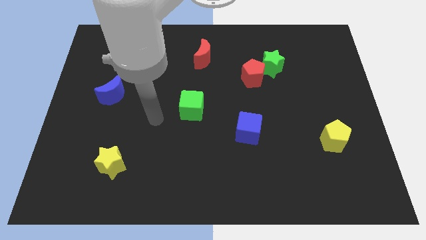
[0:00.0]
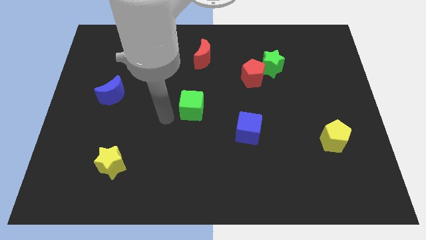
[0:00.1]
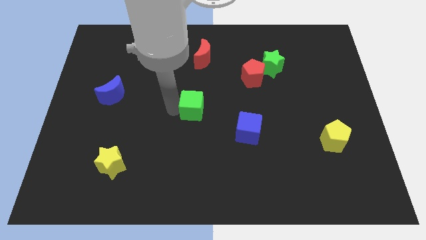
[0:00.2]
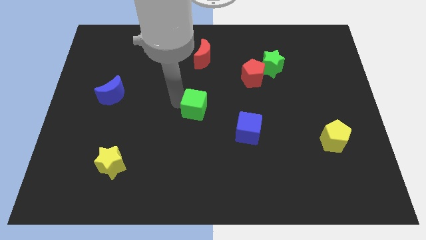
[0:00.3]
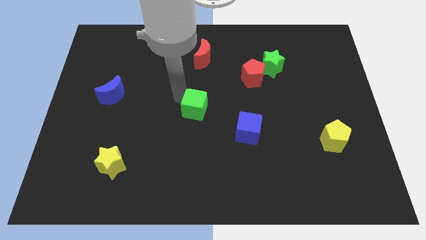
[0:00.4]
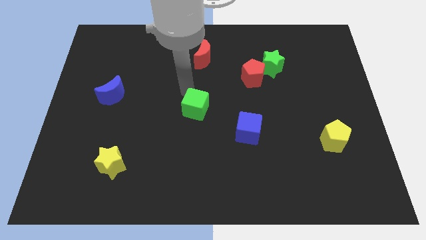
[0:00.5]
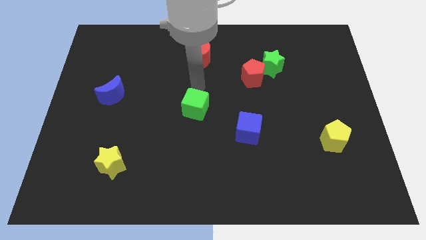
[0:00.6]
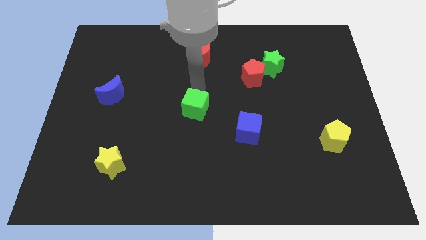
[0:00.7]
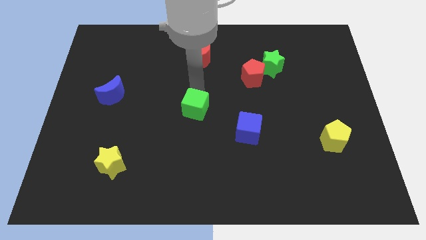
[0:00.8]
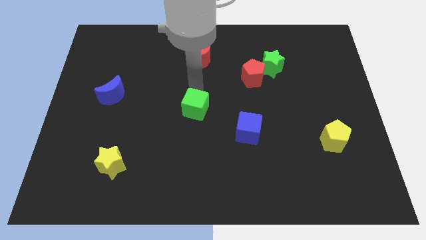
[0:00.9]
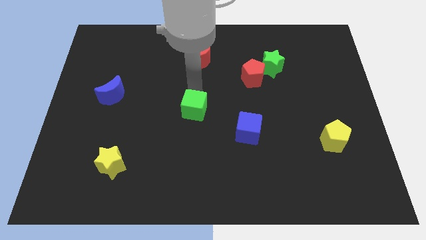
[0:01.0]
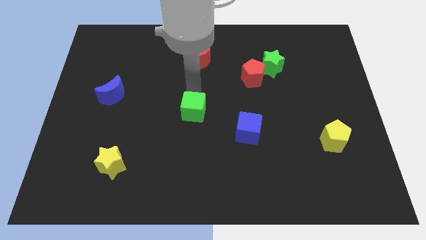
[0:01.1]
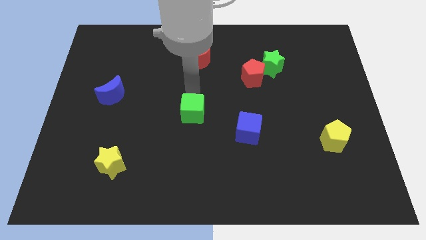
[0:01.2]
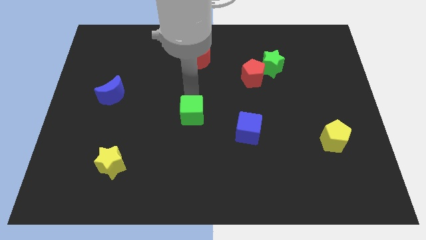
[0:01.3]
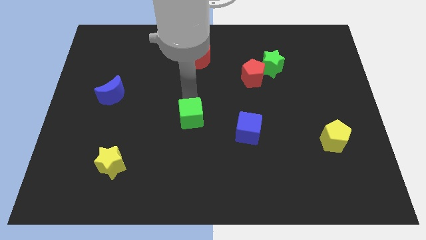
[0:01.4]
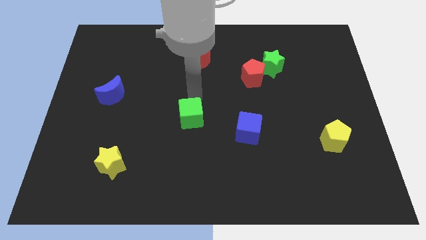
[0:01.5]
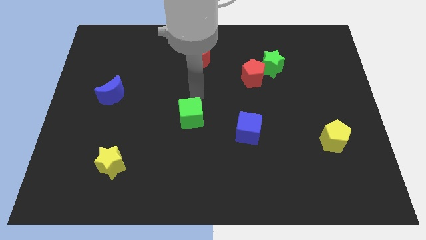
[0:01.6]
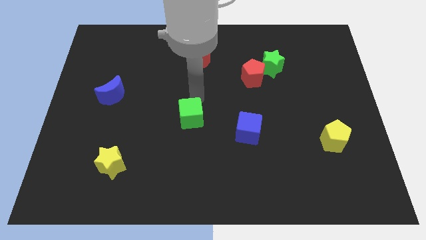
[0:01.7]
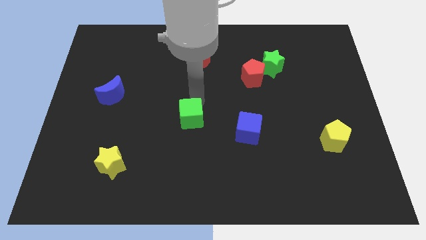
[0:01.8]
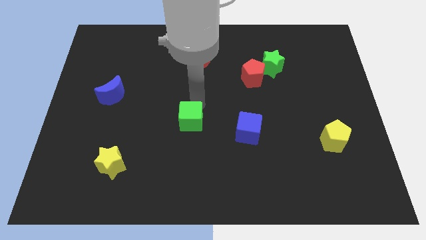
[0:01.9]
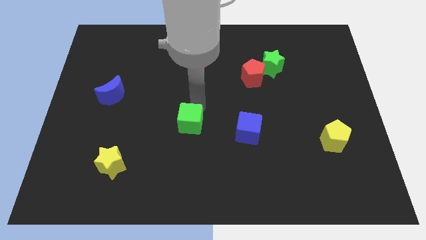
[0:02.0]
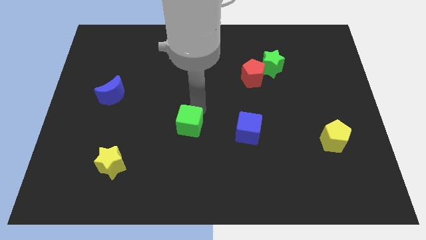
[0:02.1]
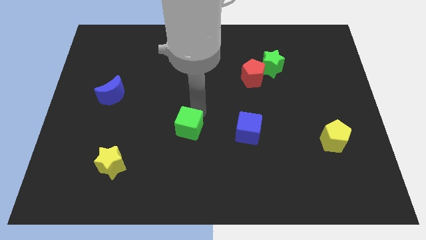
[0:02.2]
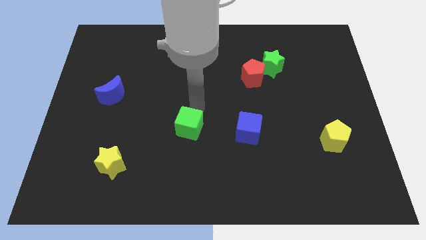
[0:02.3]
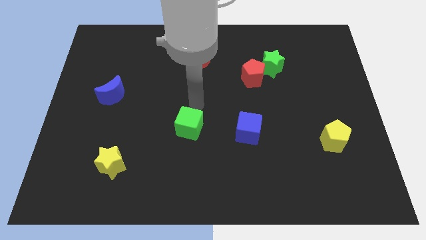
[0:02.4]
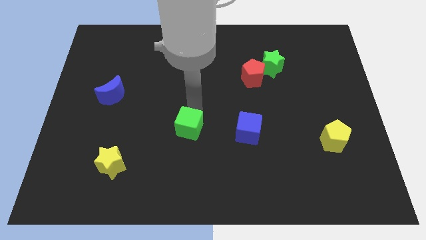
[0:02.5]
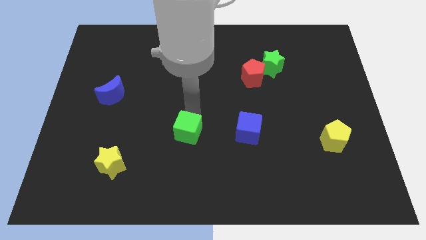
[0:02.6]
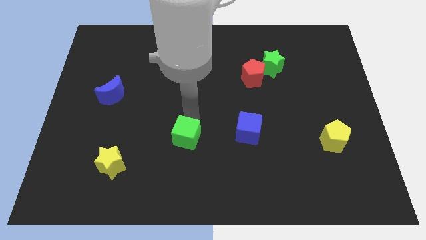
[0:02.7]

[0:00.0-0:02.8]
move the green cube down slightly

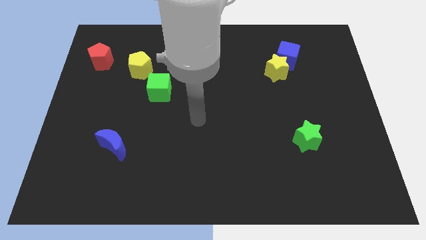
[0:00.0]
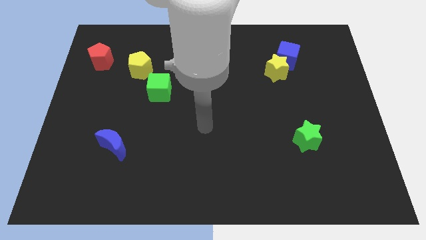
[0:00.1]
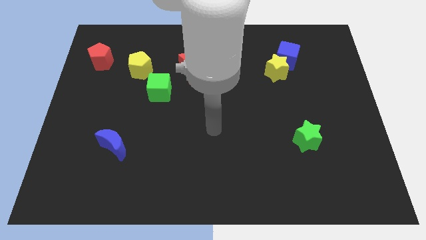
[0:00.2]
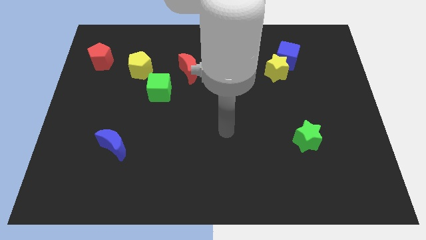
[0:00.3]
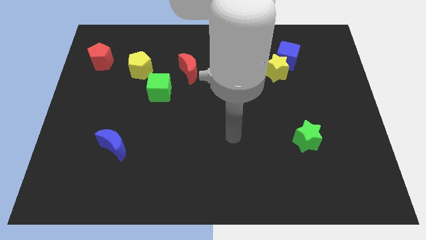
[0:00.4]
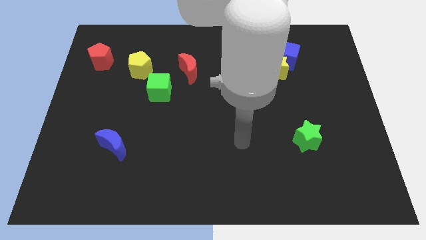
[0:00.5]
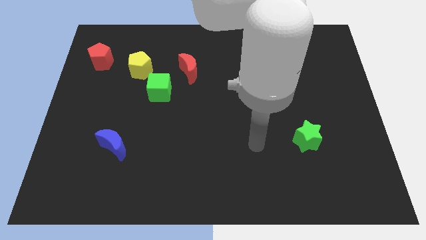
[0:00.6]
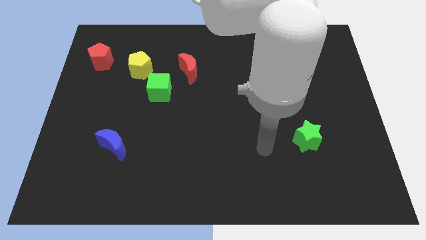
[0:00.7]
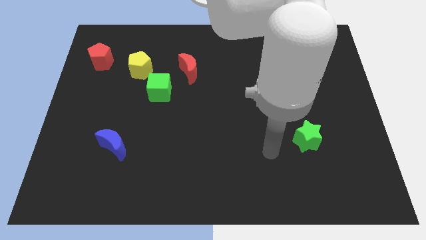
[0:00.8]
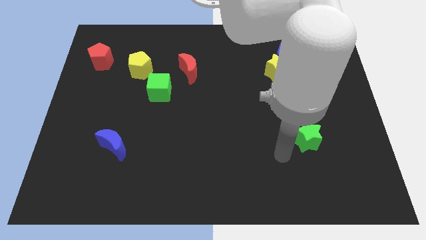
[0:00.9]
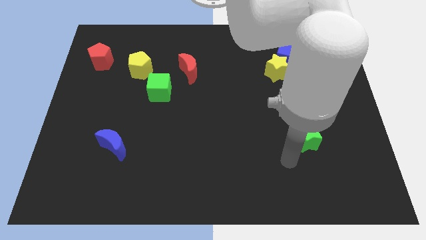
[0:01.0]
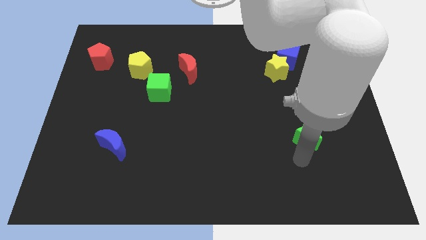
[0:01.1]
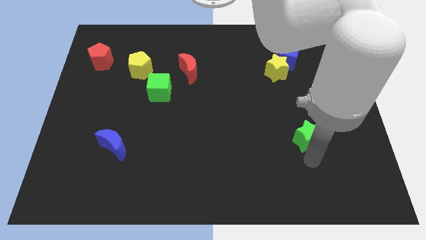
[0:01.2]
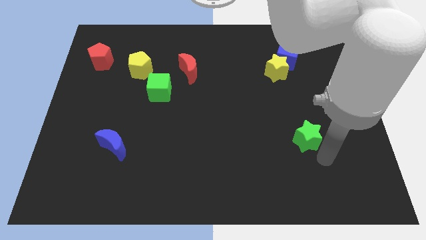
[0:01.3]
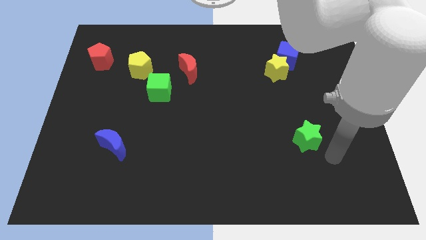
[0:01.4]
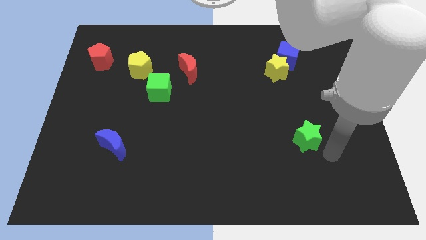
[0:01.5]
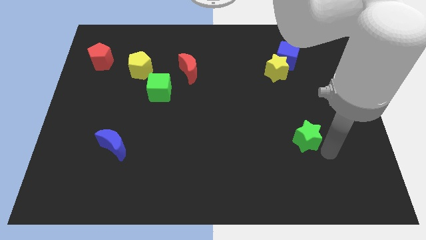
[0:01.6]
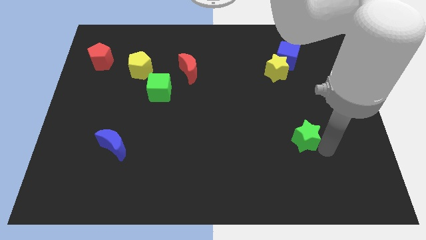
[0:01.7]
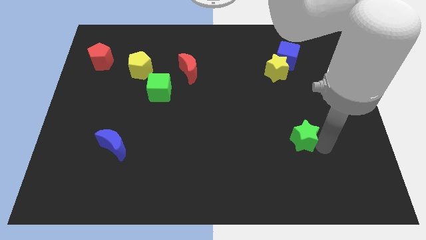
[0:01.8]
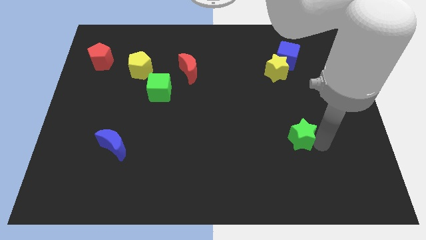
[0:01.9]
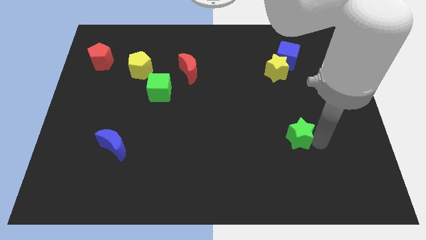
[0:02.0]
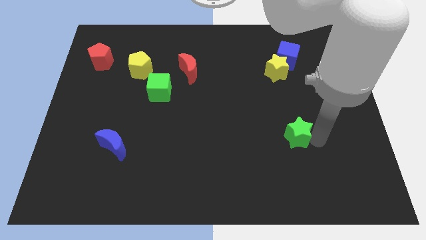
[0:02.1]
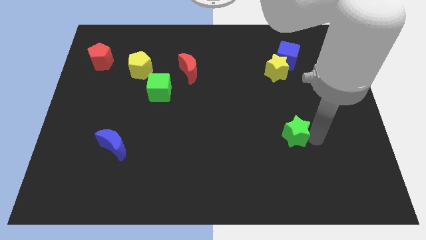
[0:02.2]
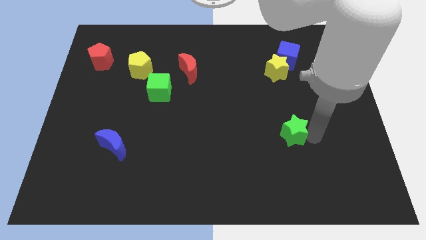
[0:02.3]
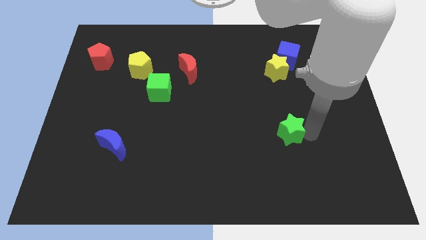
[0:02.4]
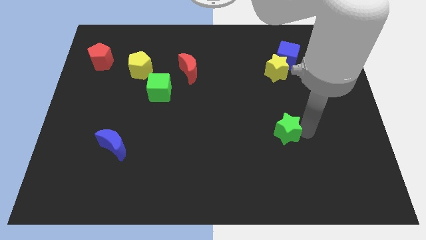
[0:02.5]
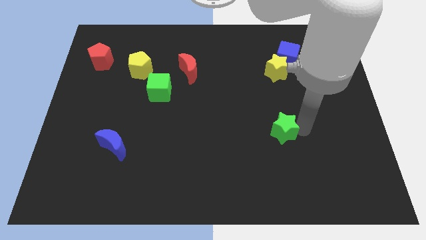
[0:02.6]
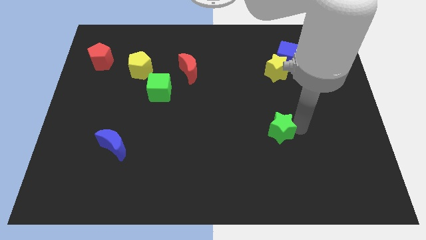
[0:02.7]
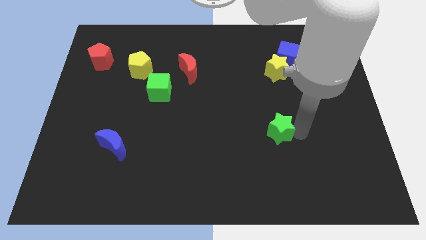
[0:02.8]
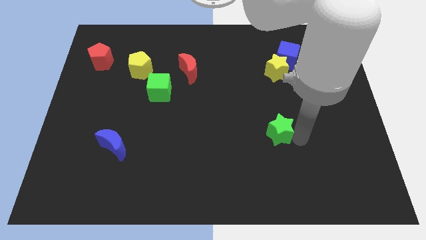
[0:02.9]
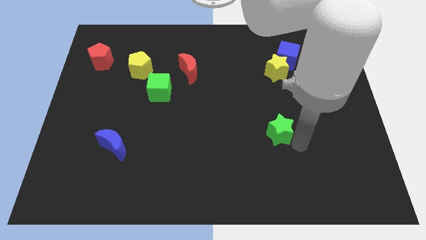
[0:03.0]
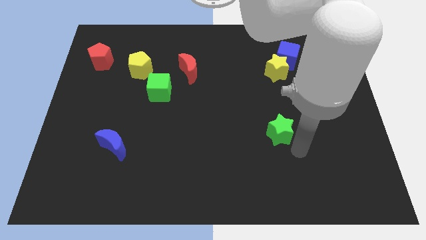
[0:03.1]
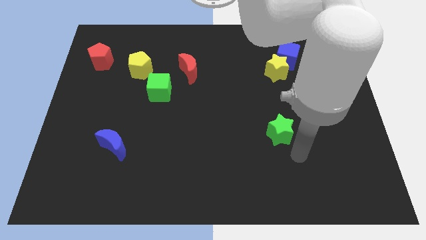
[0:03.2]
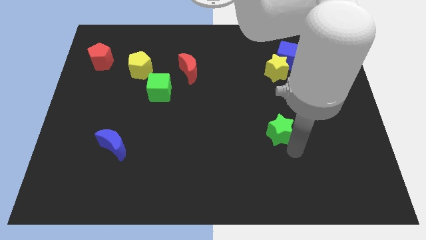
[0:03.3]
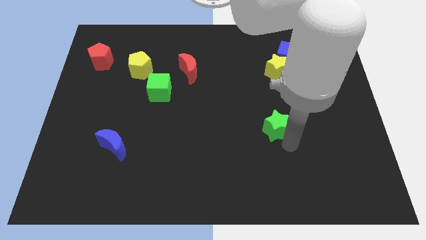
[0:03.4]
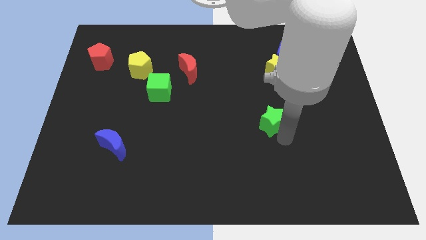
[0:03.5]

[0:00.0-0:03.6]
move the green star diagonally upwards and left slightly

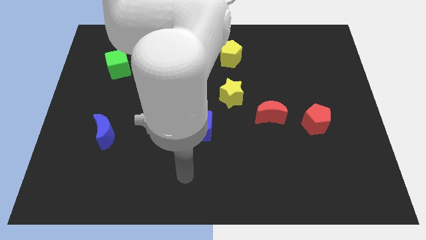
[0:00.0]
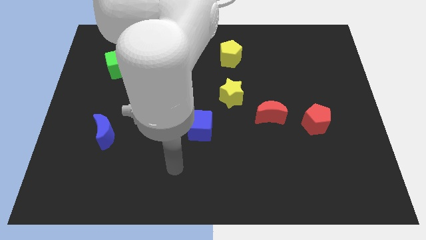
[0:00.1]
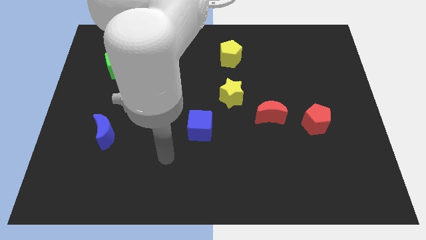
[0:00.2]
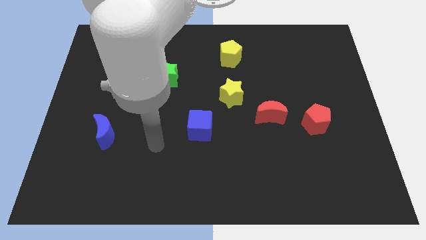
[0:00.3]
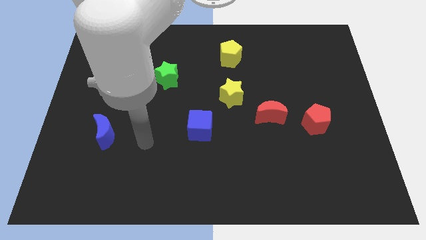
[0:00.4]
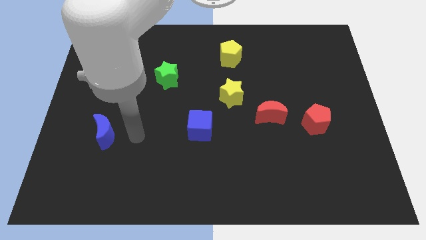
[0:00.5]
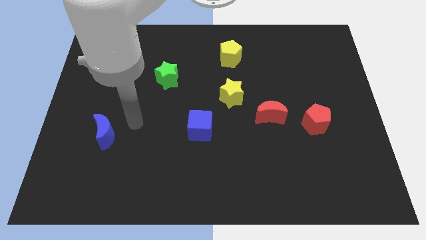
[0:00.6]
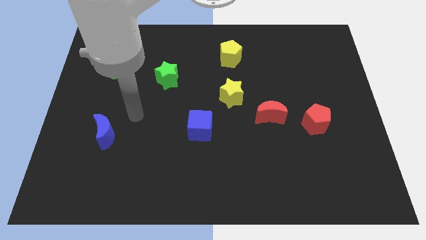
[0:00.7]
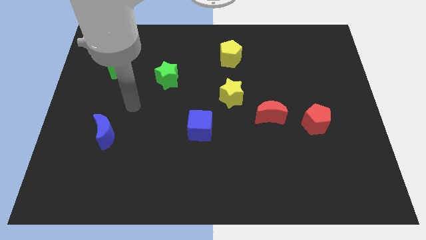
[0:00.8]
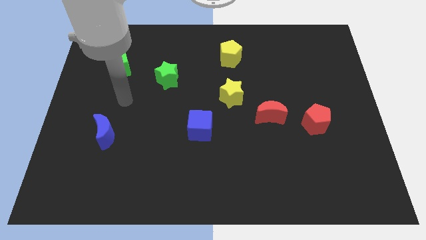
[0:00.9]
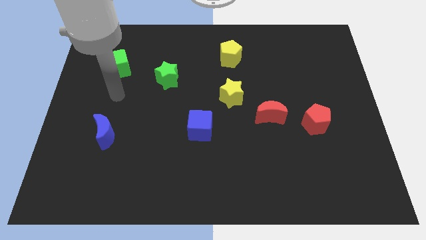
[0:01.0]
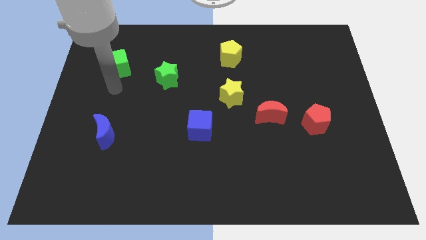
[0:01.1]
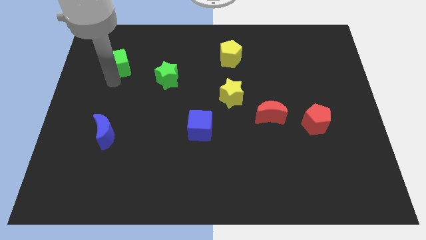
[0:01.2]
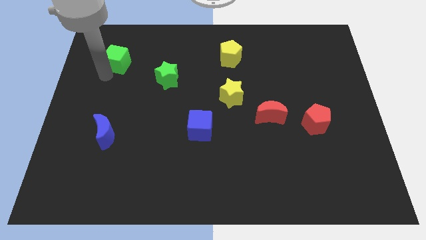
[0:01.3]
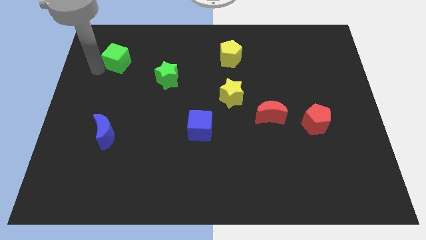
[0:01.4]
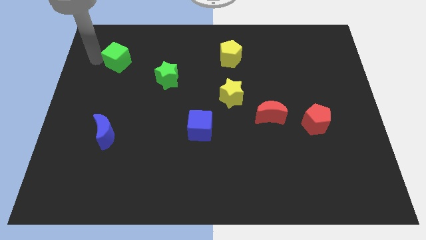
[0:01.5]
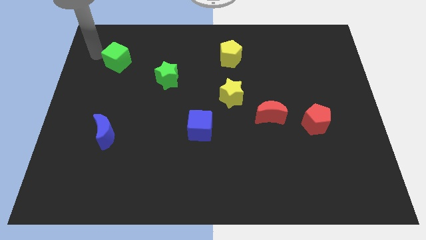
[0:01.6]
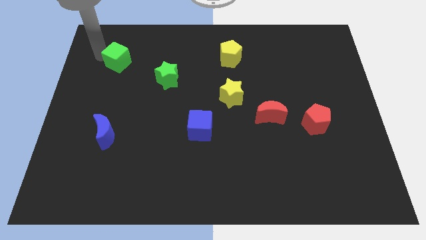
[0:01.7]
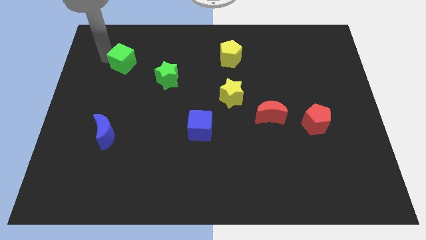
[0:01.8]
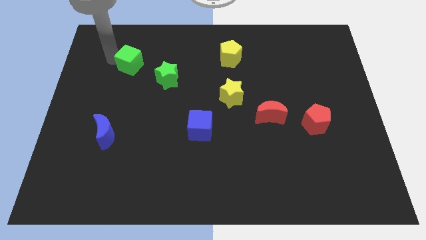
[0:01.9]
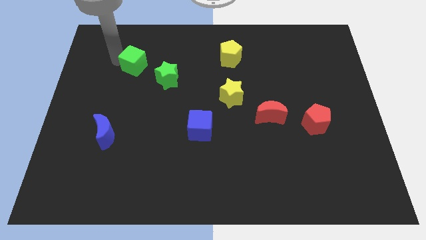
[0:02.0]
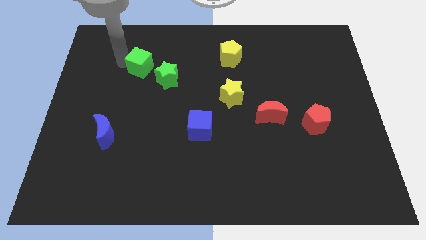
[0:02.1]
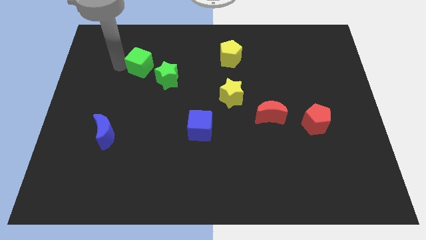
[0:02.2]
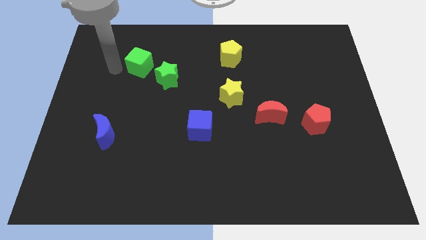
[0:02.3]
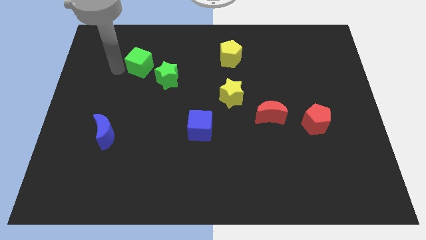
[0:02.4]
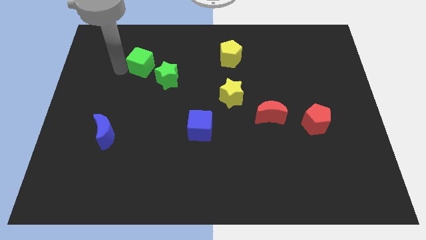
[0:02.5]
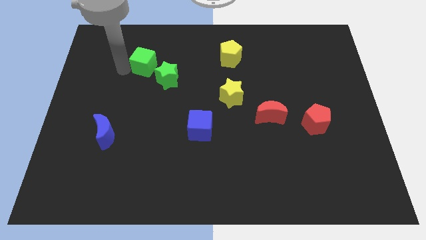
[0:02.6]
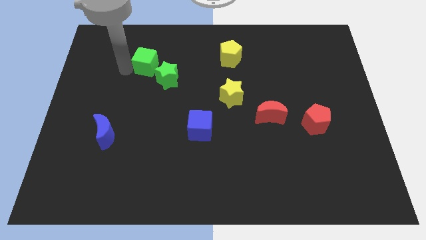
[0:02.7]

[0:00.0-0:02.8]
slide the green cube right slightly
